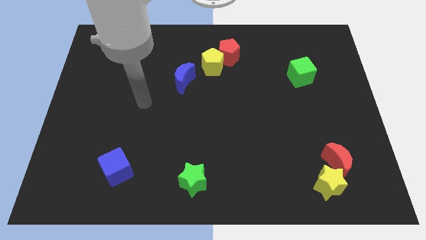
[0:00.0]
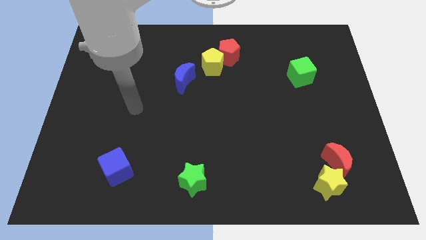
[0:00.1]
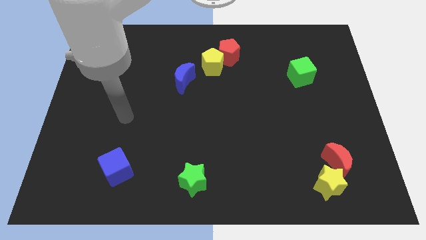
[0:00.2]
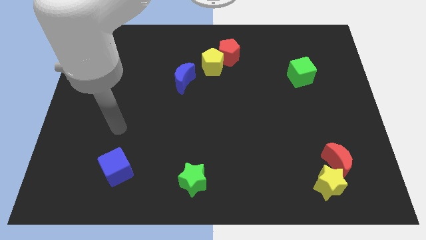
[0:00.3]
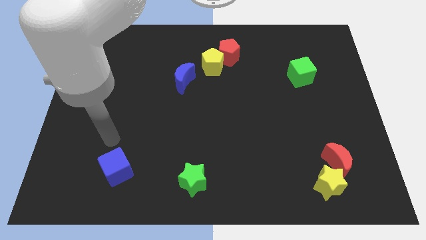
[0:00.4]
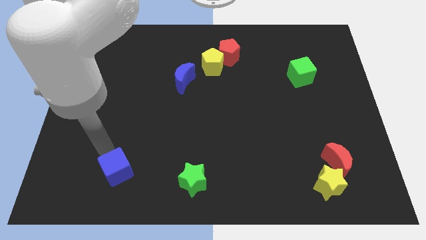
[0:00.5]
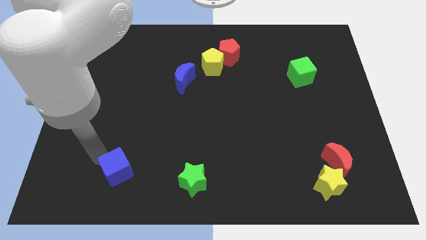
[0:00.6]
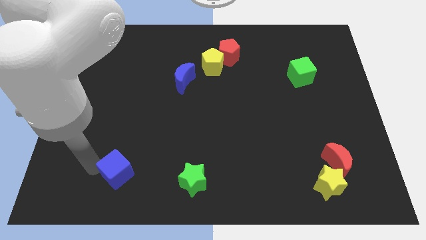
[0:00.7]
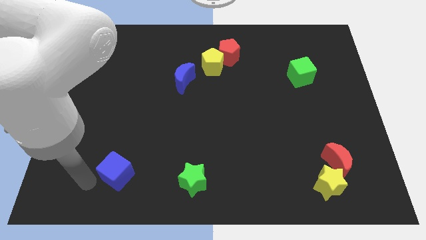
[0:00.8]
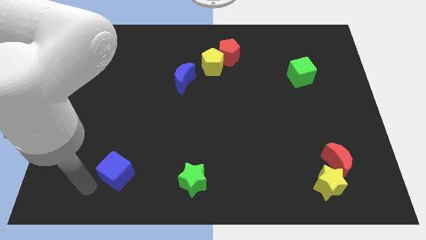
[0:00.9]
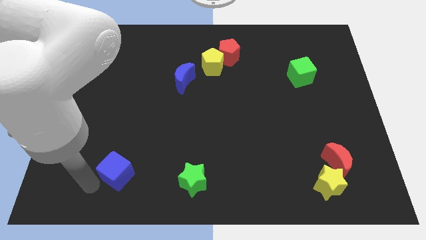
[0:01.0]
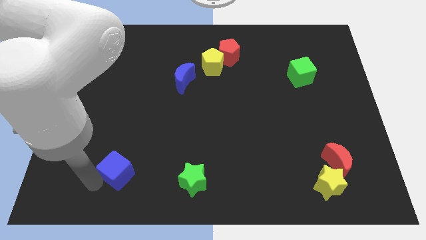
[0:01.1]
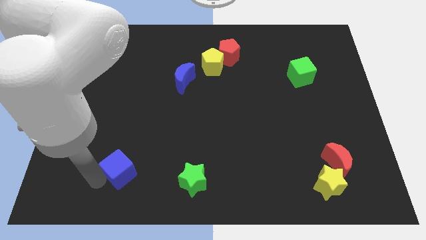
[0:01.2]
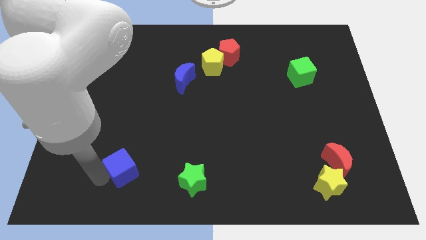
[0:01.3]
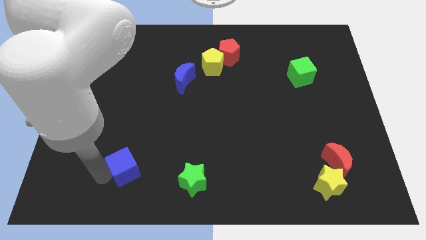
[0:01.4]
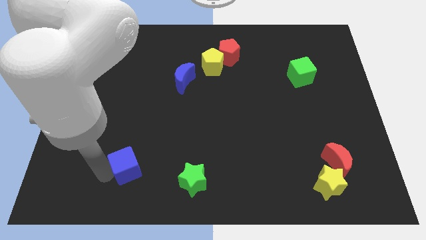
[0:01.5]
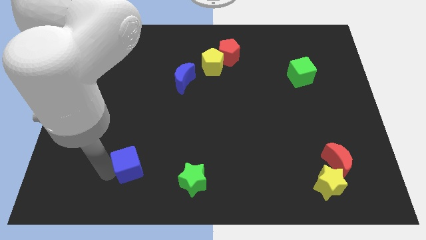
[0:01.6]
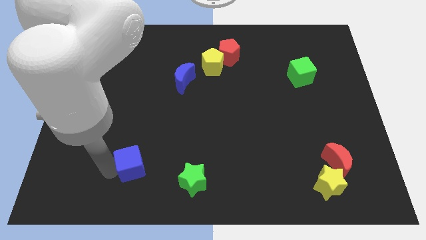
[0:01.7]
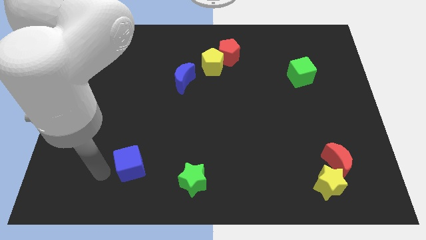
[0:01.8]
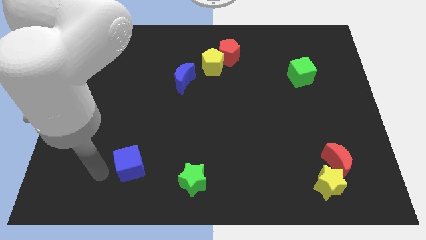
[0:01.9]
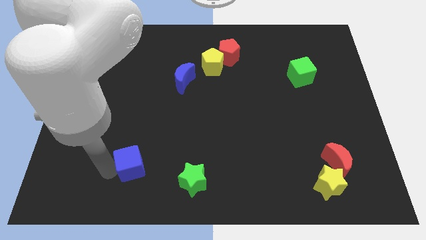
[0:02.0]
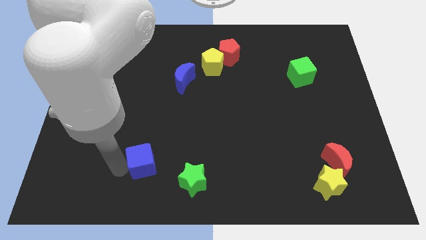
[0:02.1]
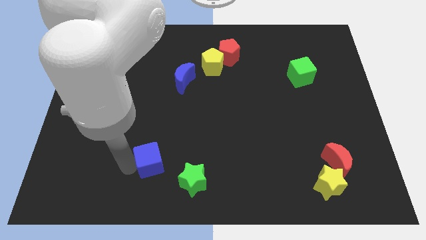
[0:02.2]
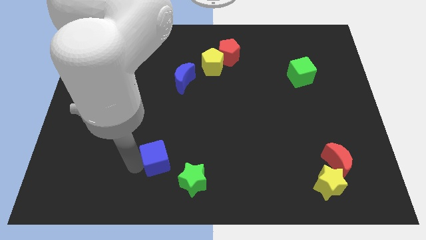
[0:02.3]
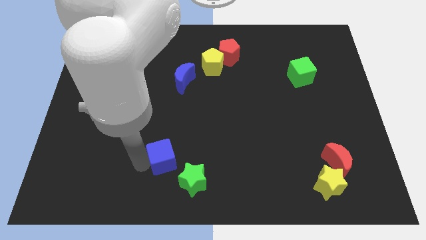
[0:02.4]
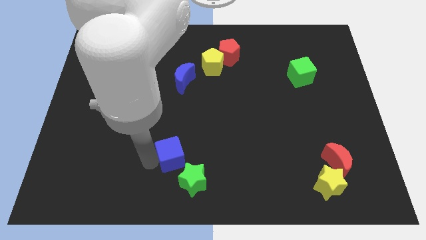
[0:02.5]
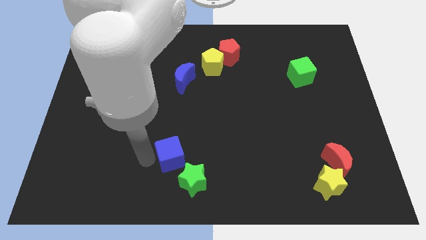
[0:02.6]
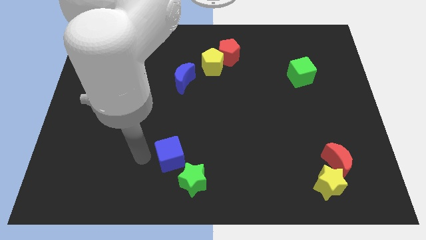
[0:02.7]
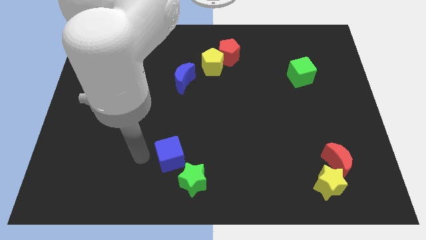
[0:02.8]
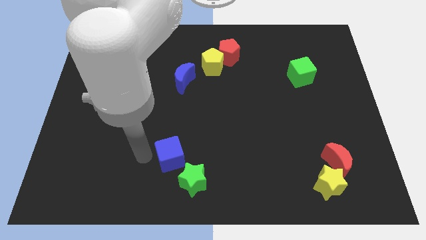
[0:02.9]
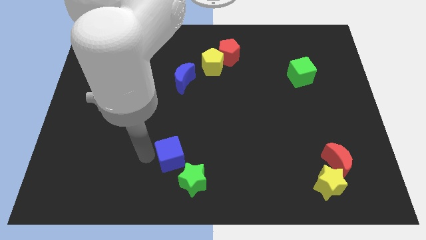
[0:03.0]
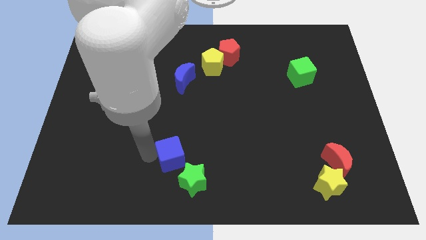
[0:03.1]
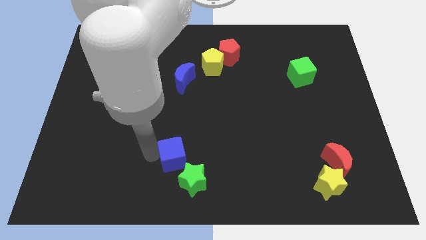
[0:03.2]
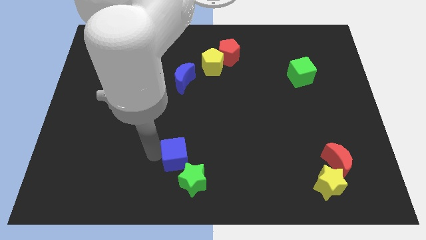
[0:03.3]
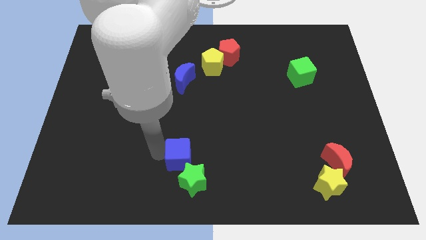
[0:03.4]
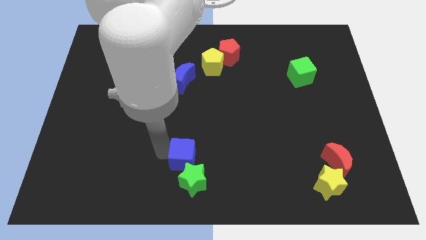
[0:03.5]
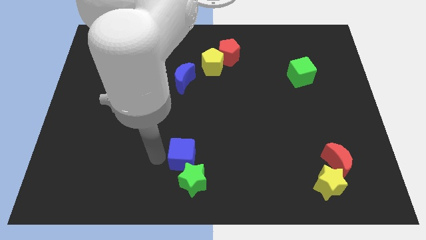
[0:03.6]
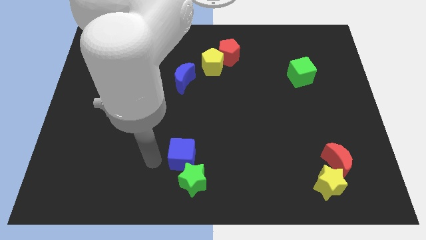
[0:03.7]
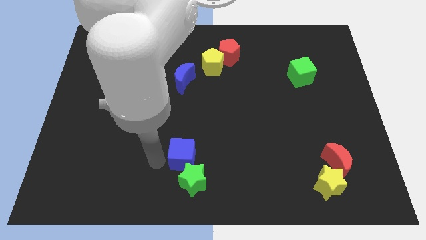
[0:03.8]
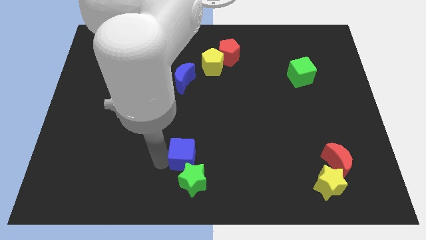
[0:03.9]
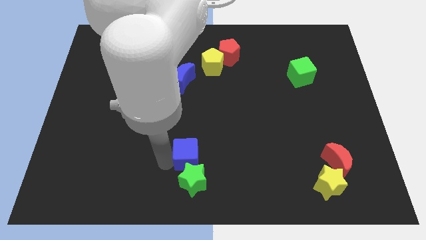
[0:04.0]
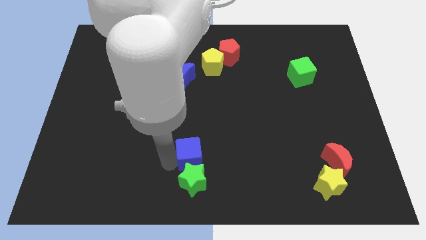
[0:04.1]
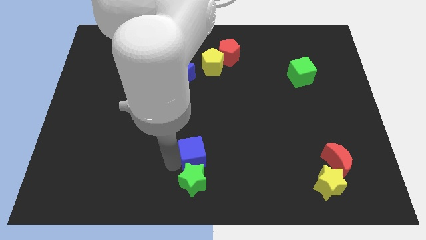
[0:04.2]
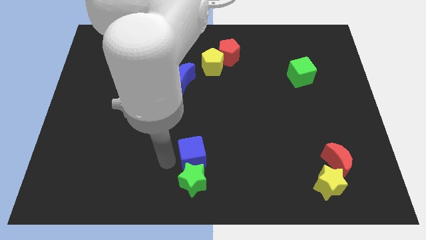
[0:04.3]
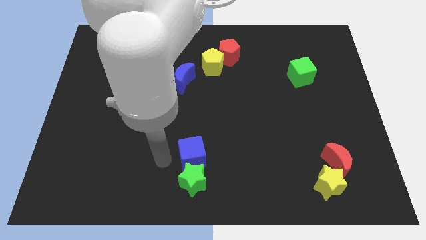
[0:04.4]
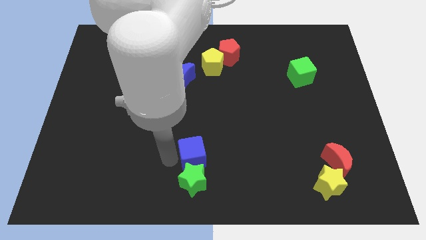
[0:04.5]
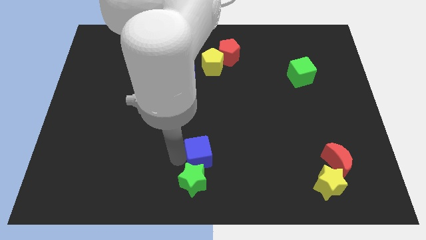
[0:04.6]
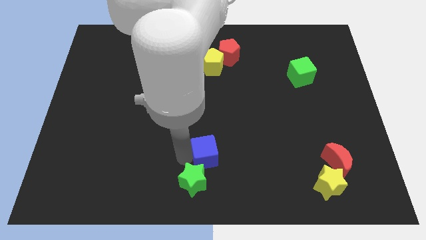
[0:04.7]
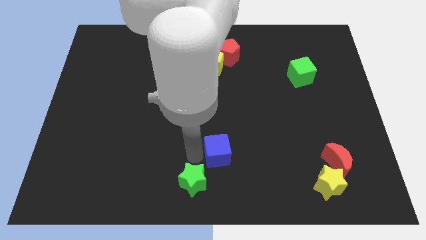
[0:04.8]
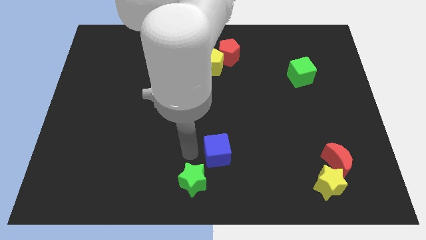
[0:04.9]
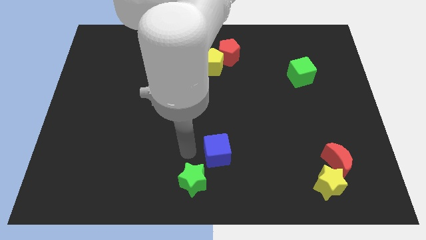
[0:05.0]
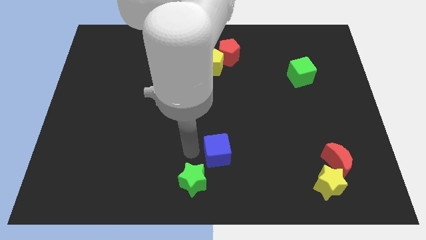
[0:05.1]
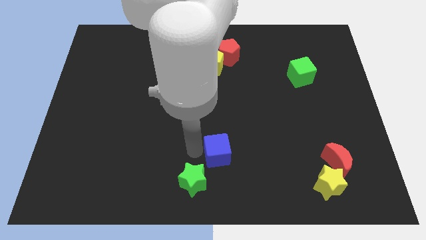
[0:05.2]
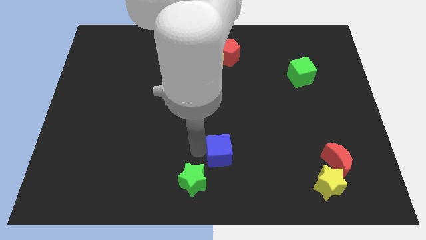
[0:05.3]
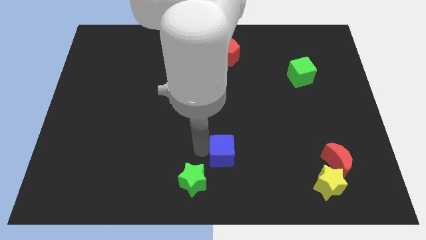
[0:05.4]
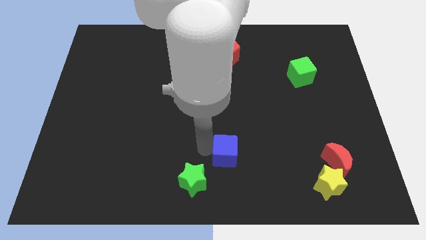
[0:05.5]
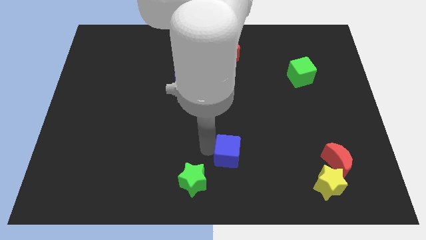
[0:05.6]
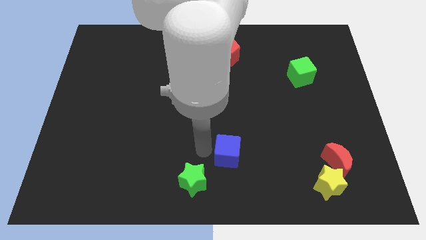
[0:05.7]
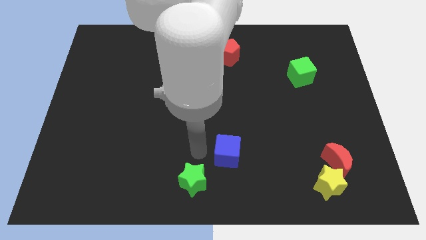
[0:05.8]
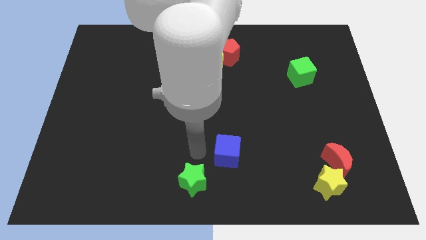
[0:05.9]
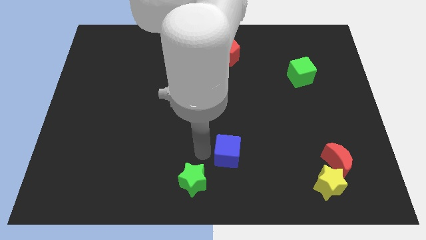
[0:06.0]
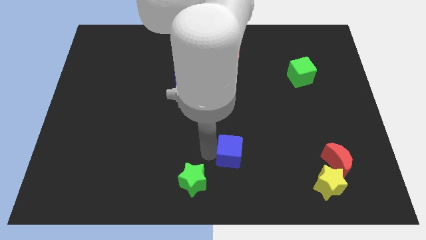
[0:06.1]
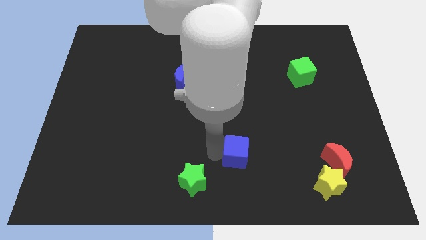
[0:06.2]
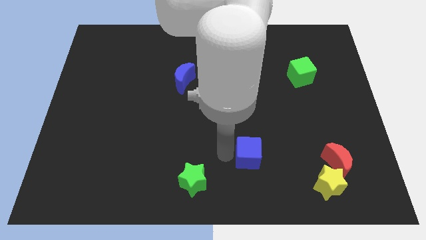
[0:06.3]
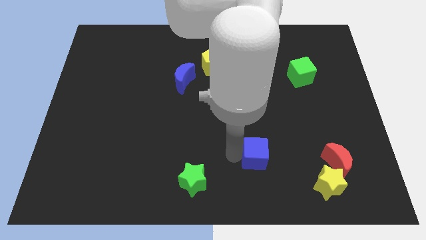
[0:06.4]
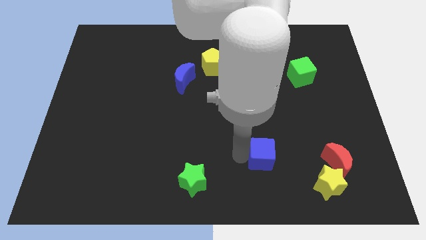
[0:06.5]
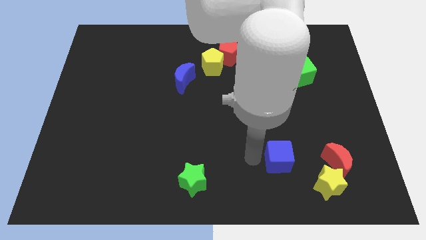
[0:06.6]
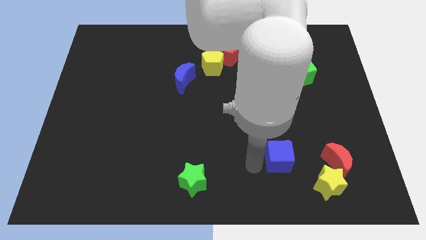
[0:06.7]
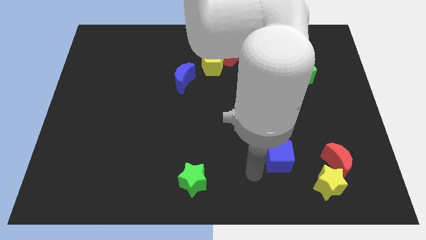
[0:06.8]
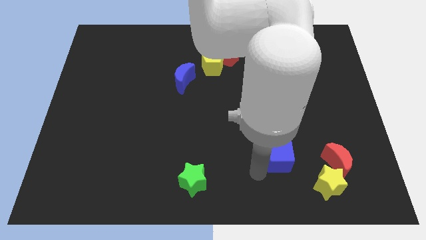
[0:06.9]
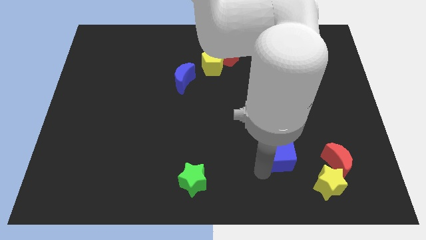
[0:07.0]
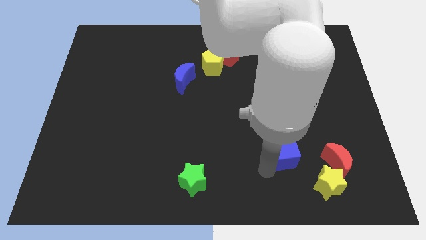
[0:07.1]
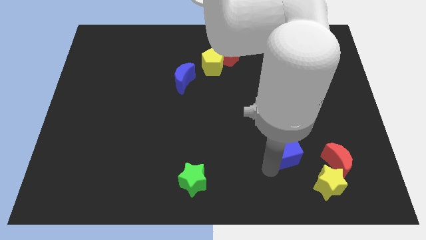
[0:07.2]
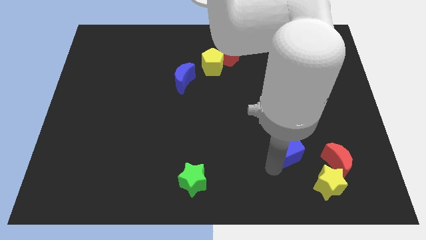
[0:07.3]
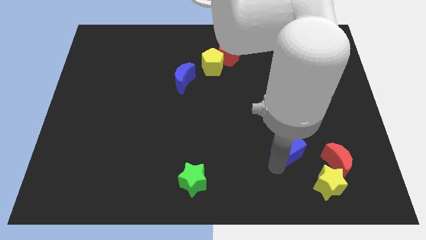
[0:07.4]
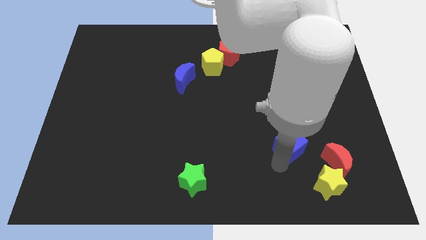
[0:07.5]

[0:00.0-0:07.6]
slide the blue cube to the top left side of the red moon
